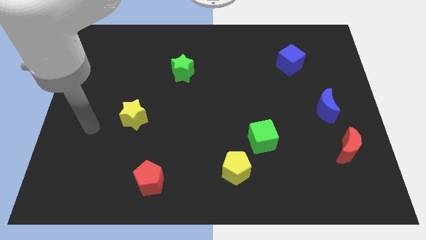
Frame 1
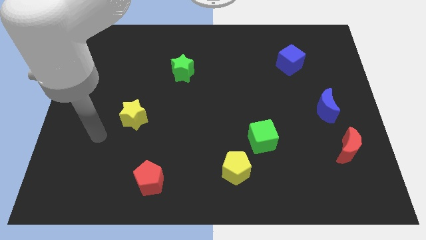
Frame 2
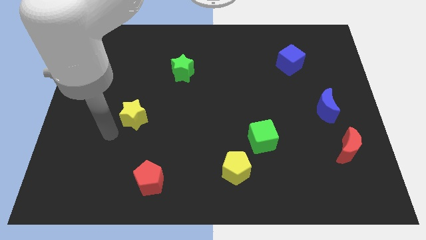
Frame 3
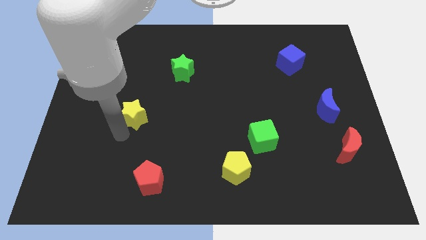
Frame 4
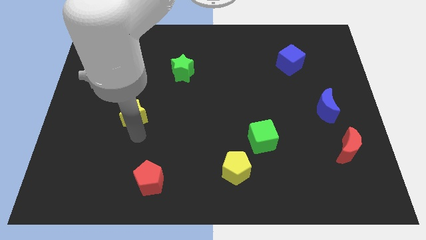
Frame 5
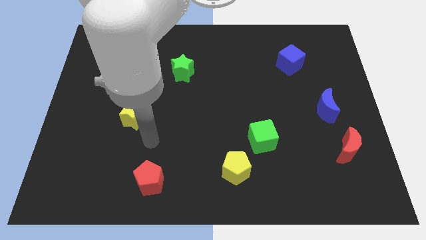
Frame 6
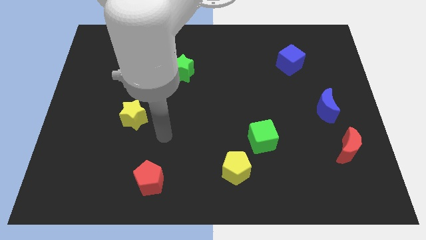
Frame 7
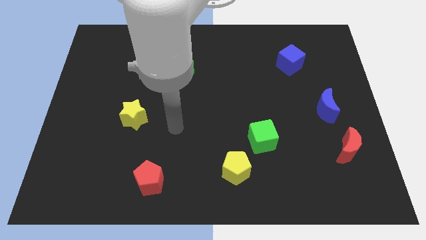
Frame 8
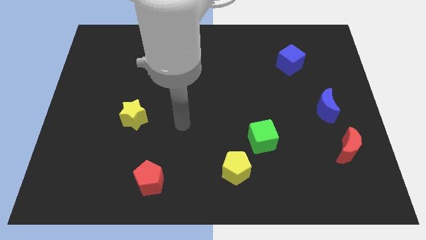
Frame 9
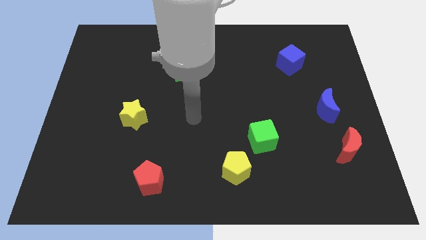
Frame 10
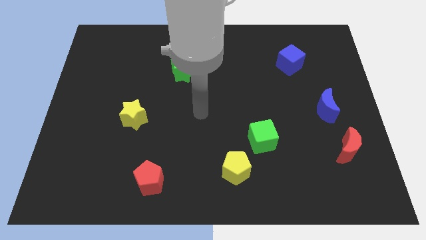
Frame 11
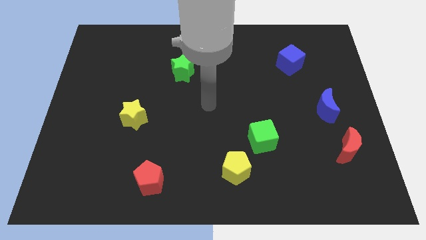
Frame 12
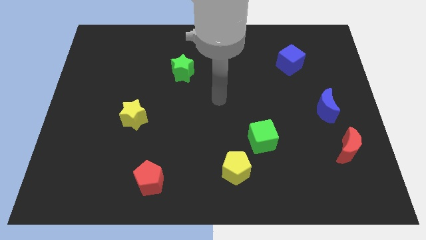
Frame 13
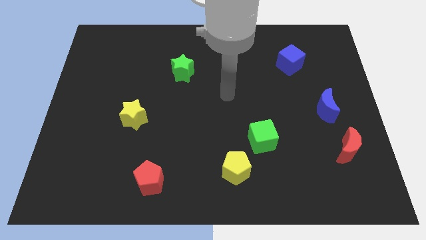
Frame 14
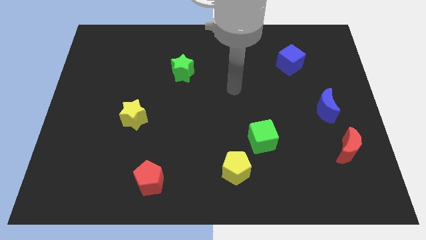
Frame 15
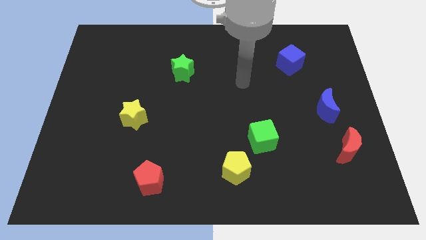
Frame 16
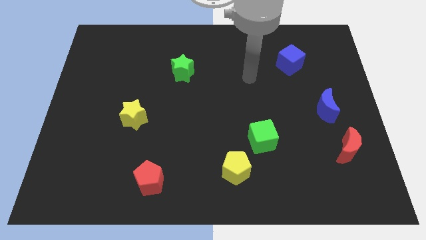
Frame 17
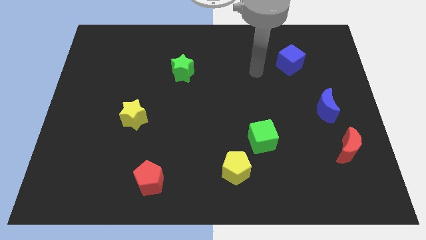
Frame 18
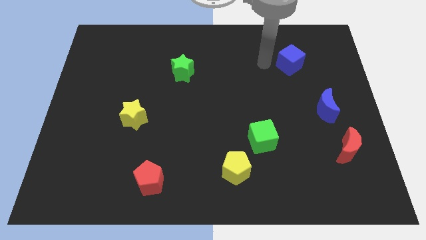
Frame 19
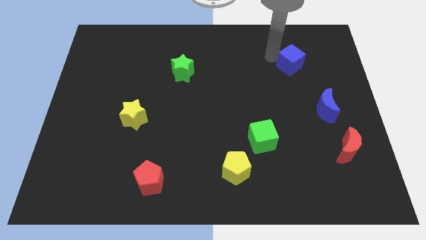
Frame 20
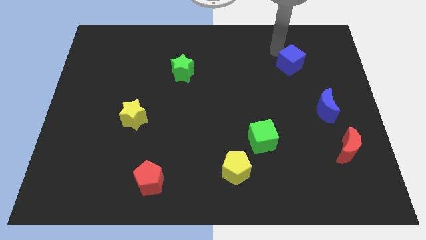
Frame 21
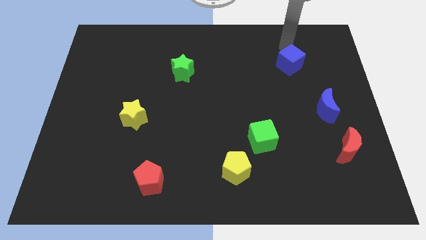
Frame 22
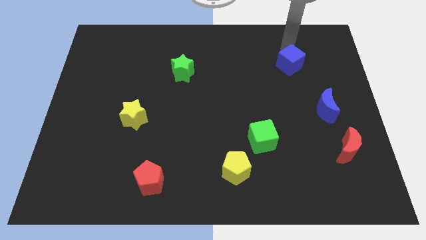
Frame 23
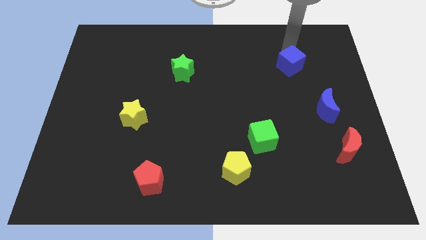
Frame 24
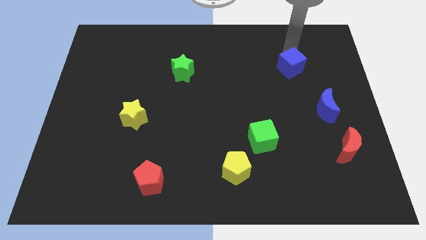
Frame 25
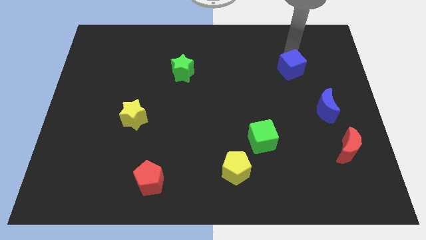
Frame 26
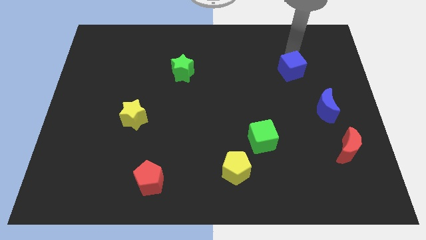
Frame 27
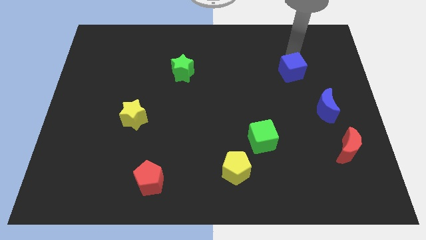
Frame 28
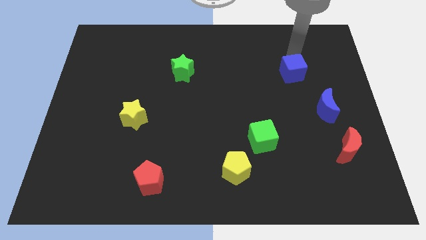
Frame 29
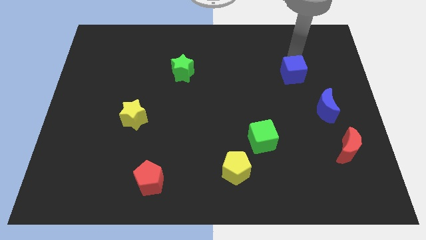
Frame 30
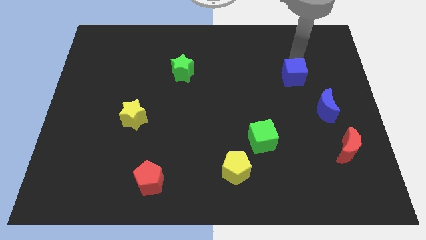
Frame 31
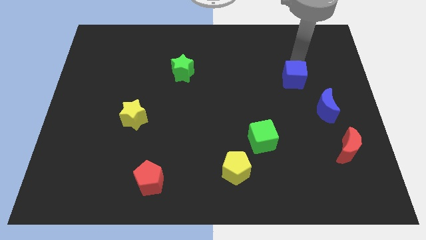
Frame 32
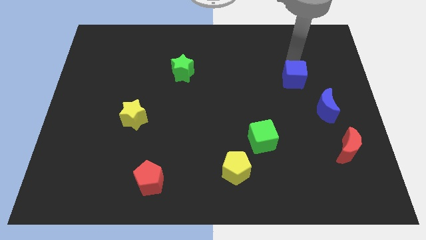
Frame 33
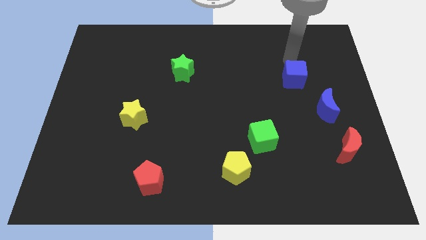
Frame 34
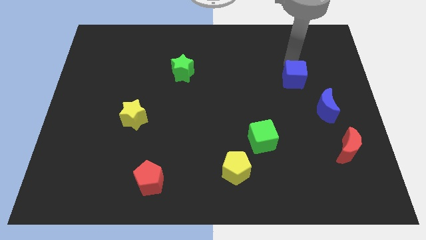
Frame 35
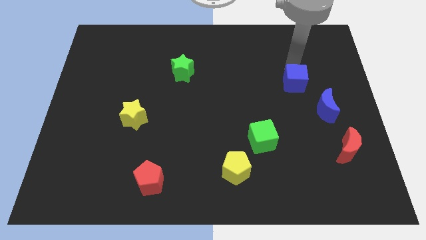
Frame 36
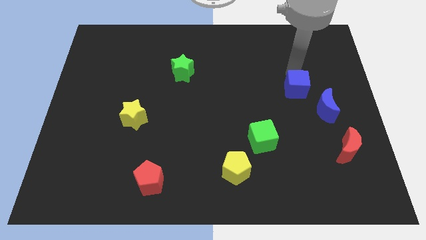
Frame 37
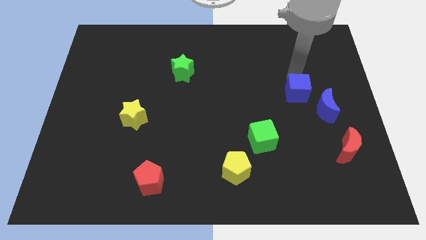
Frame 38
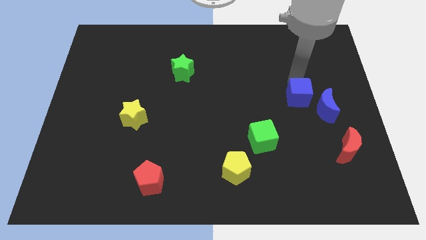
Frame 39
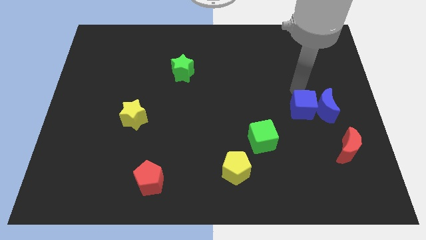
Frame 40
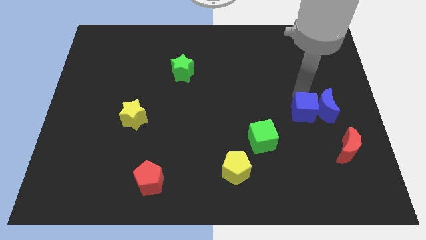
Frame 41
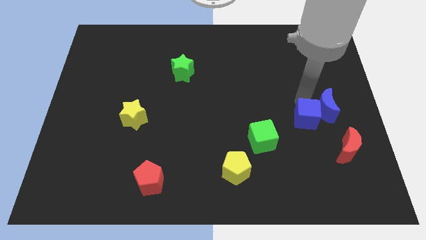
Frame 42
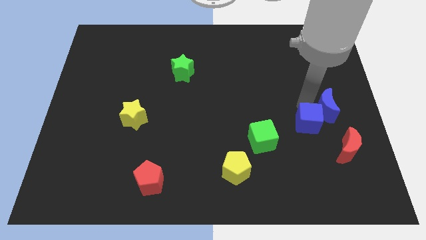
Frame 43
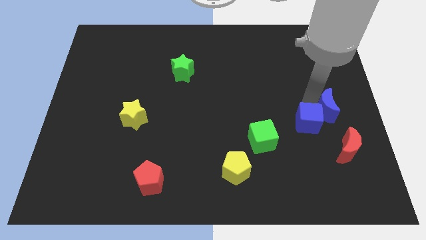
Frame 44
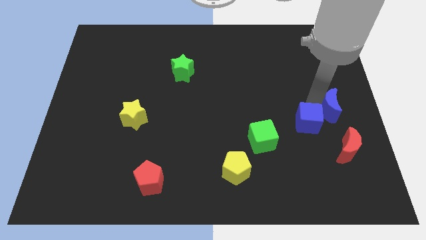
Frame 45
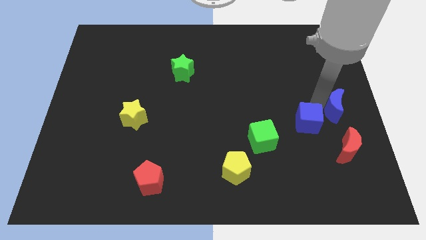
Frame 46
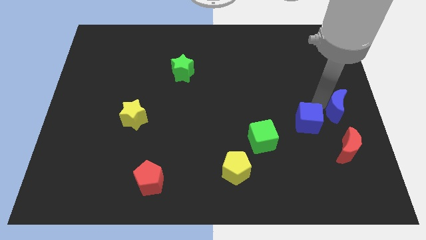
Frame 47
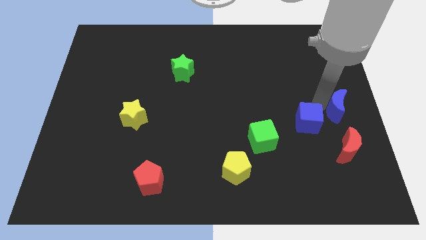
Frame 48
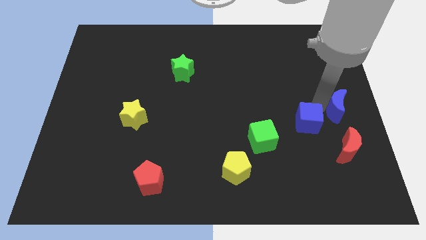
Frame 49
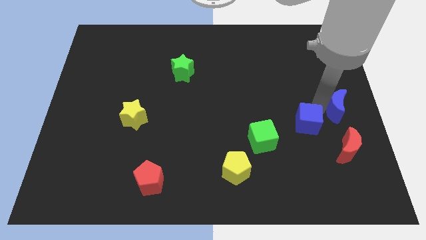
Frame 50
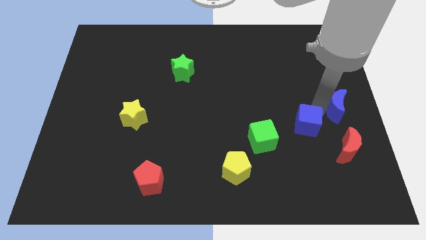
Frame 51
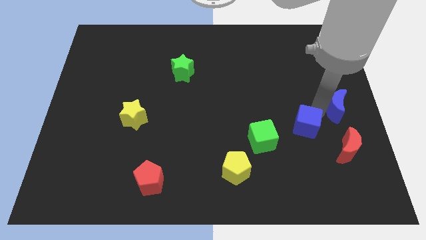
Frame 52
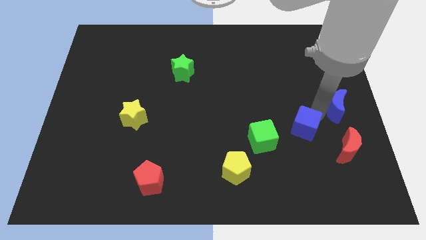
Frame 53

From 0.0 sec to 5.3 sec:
slide the blue cube down

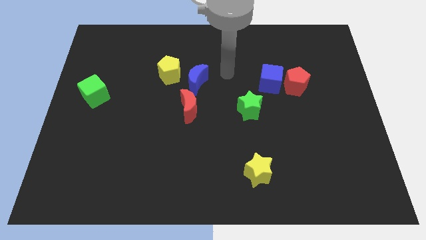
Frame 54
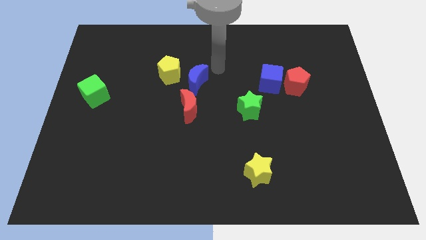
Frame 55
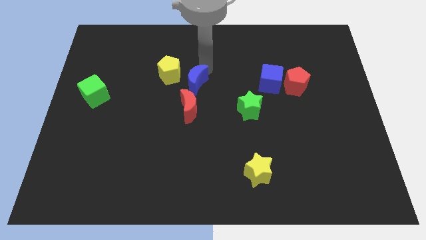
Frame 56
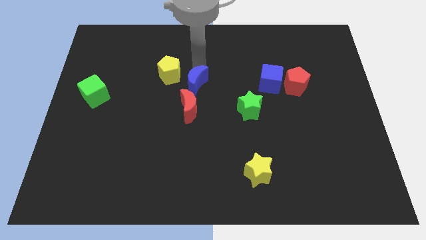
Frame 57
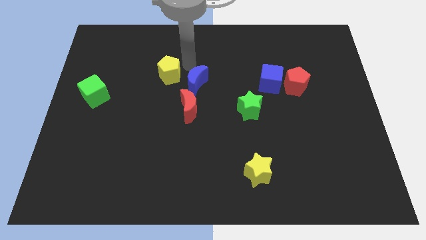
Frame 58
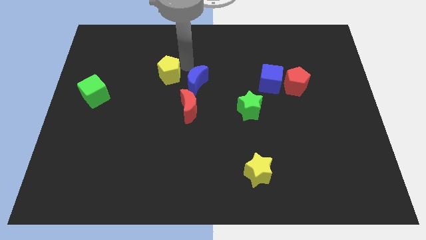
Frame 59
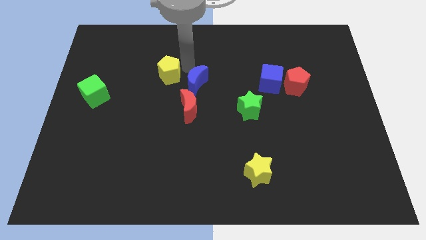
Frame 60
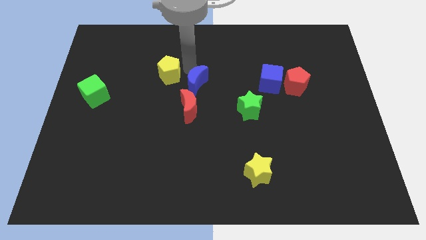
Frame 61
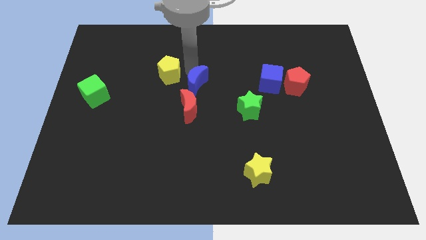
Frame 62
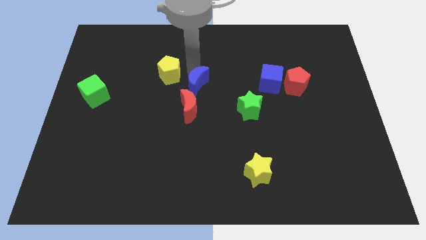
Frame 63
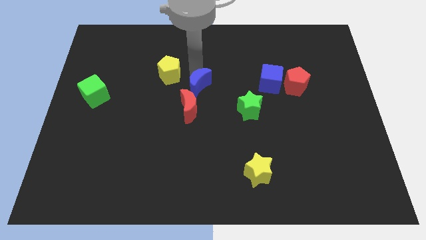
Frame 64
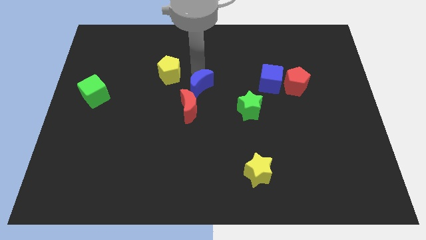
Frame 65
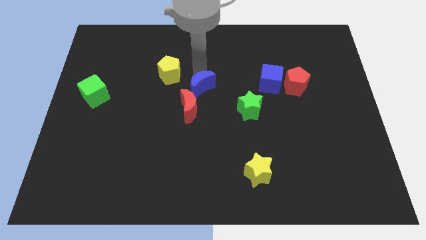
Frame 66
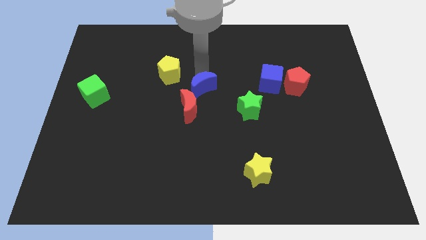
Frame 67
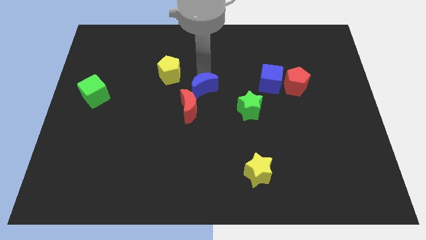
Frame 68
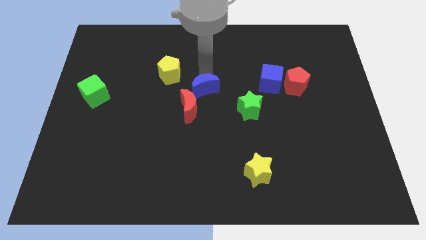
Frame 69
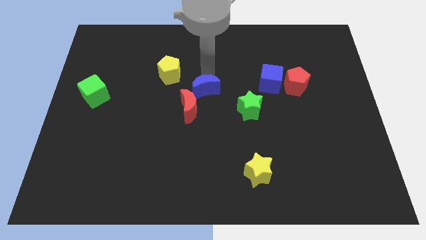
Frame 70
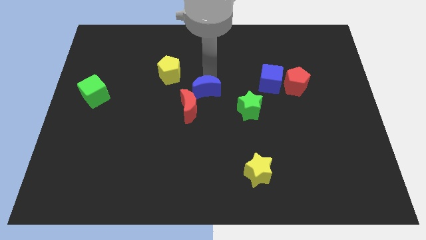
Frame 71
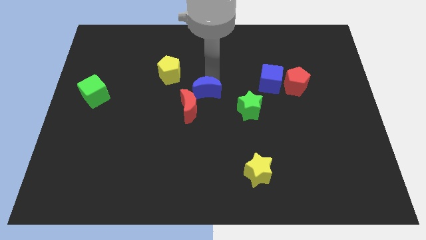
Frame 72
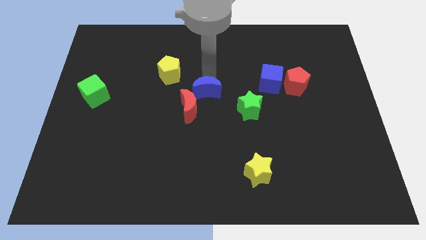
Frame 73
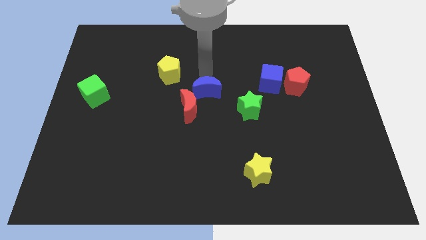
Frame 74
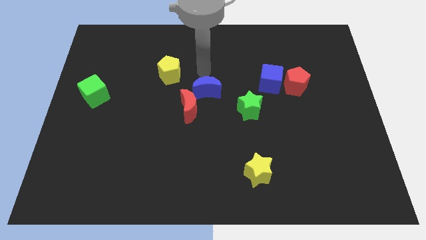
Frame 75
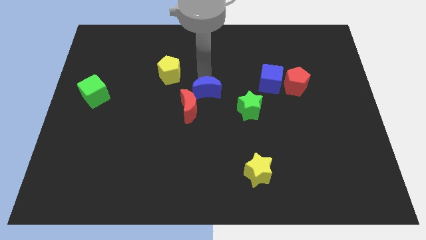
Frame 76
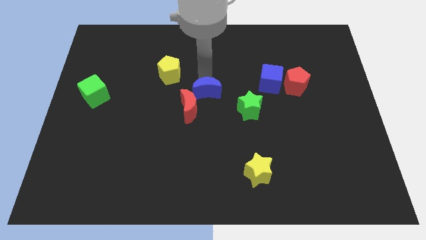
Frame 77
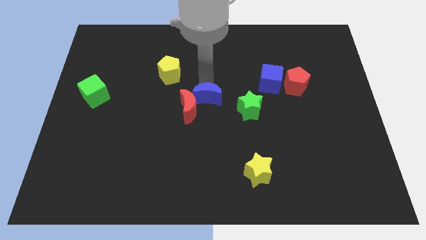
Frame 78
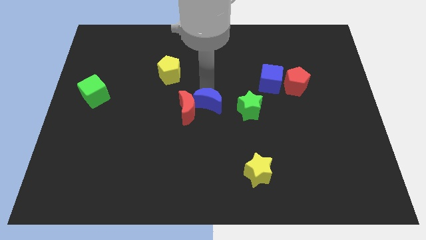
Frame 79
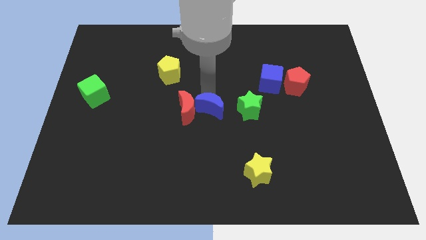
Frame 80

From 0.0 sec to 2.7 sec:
slightly move the blue moon downwards

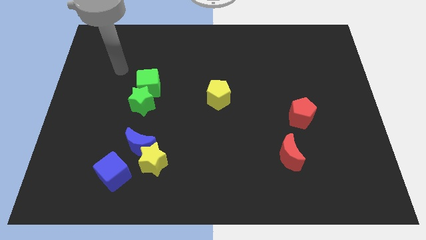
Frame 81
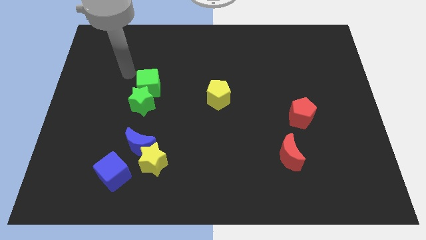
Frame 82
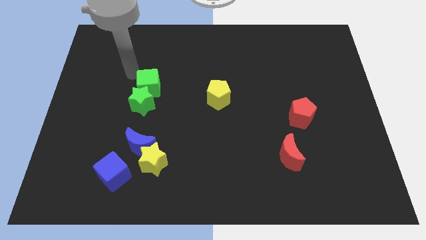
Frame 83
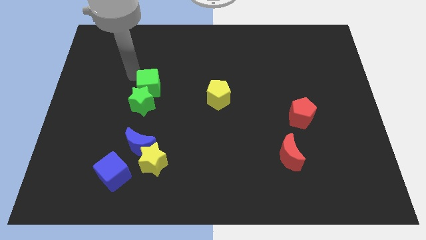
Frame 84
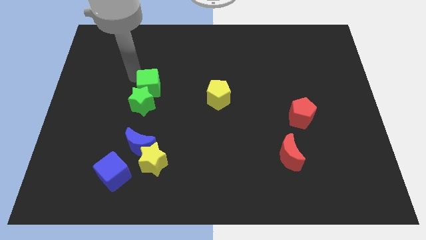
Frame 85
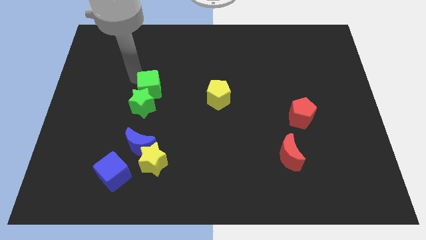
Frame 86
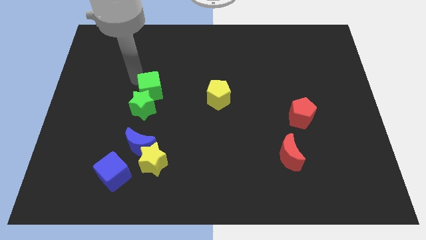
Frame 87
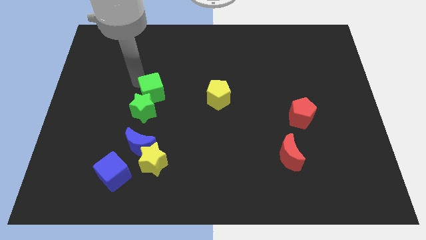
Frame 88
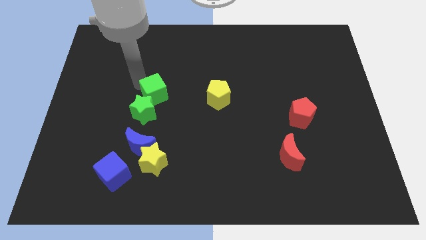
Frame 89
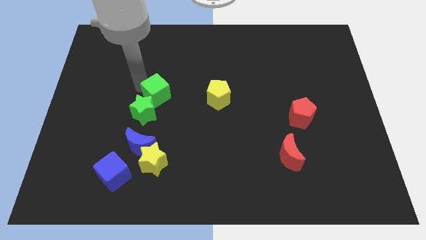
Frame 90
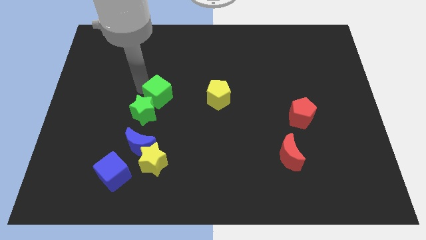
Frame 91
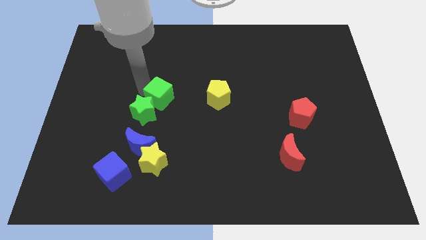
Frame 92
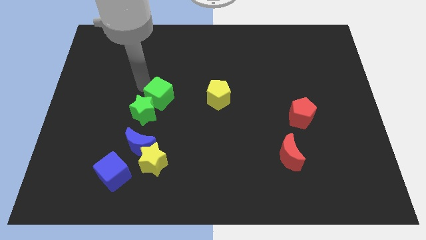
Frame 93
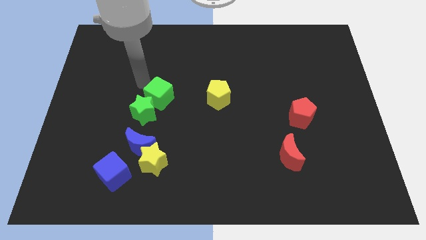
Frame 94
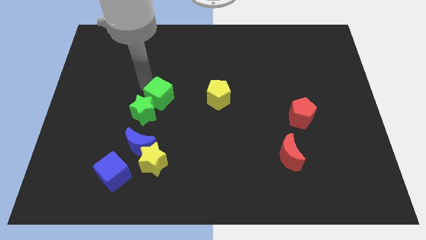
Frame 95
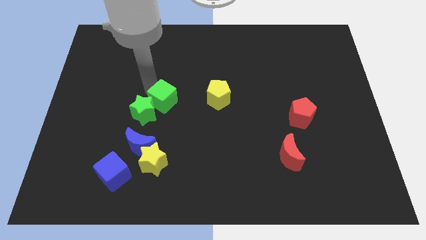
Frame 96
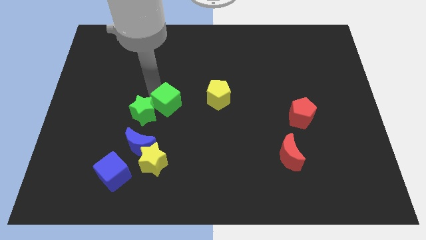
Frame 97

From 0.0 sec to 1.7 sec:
slightly slide the green cube downwards and then right
